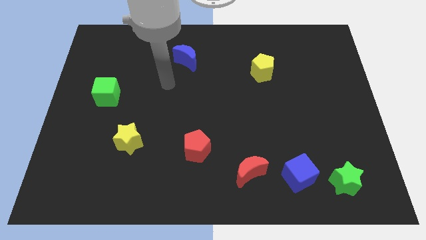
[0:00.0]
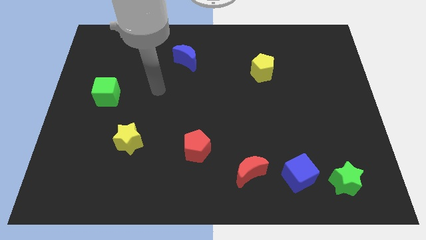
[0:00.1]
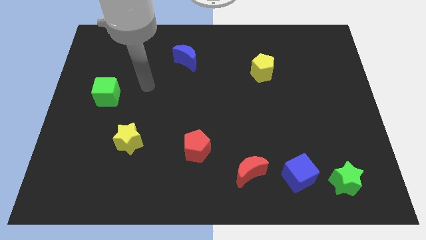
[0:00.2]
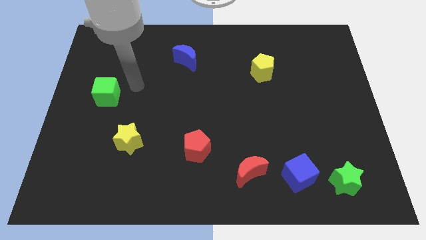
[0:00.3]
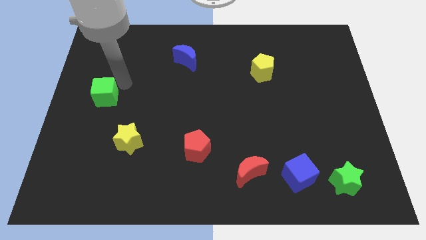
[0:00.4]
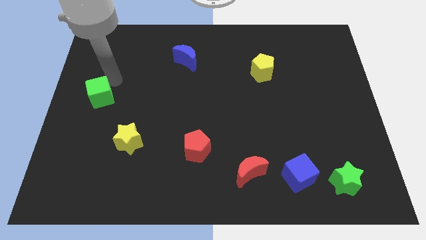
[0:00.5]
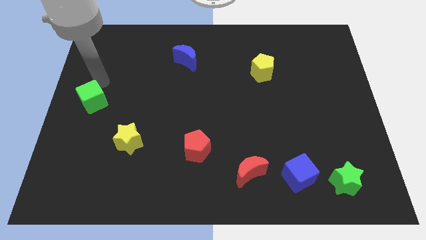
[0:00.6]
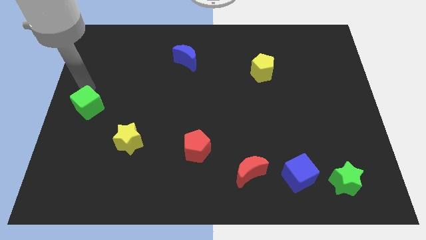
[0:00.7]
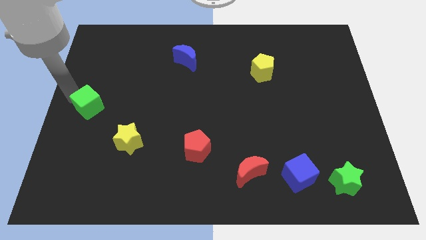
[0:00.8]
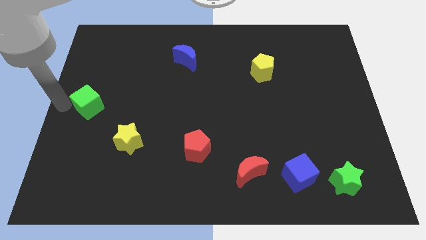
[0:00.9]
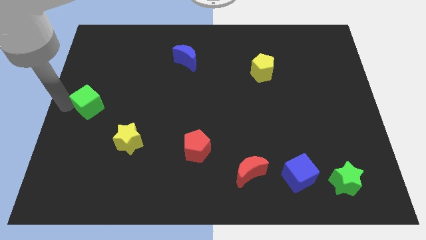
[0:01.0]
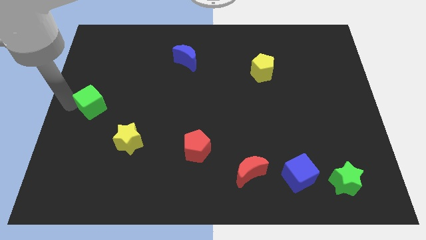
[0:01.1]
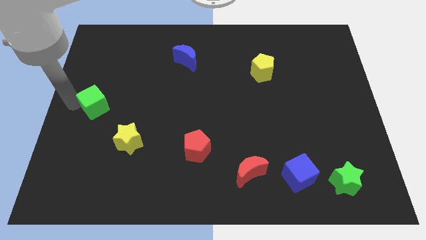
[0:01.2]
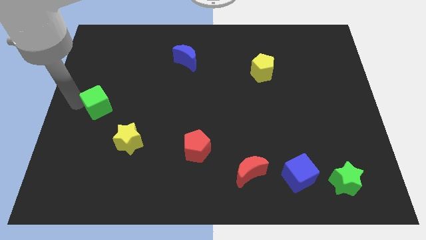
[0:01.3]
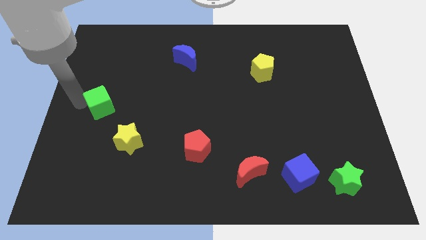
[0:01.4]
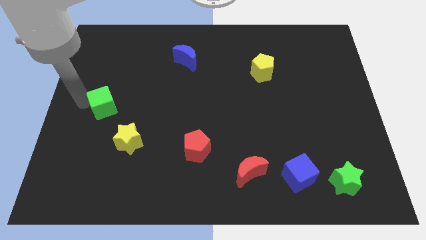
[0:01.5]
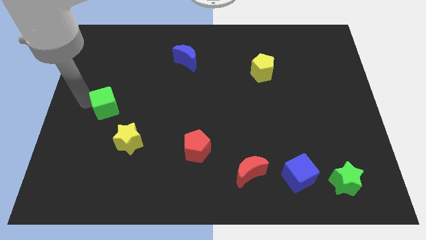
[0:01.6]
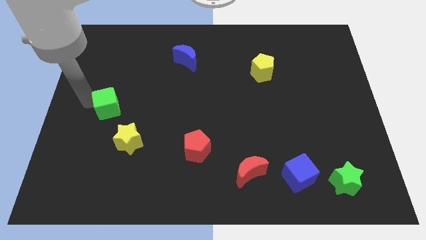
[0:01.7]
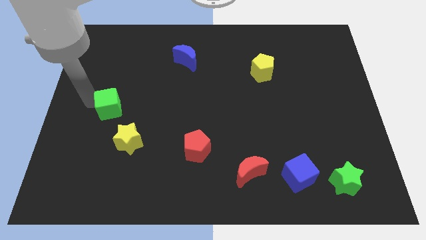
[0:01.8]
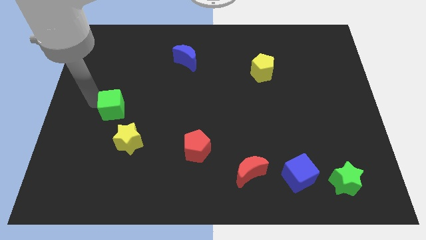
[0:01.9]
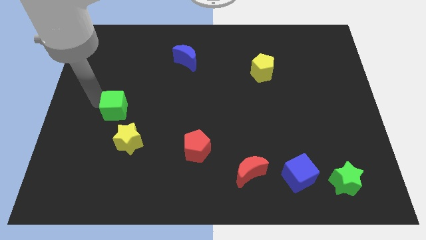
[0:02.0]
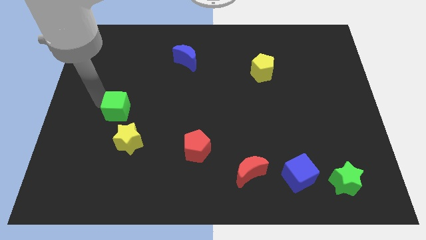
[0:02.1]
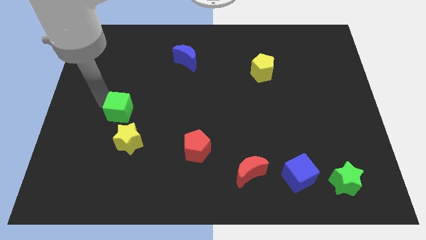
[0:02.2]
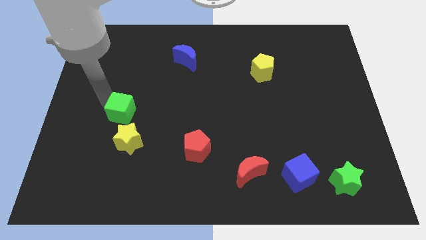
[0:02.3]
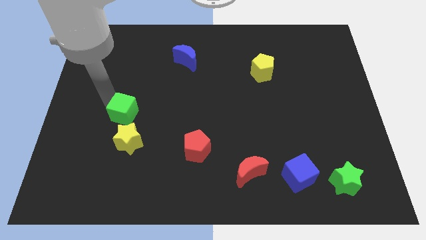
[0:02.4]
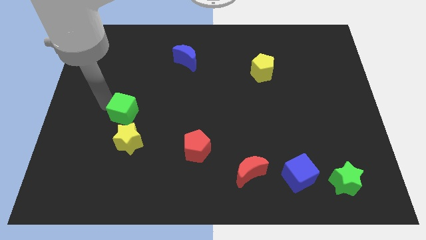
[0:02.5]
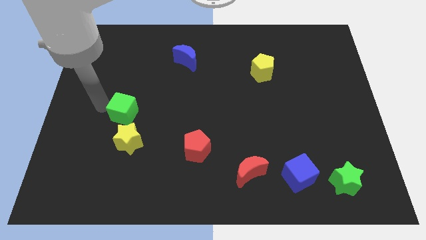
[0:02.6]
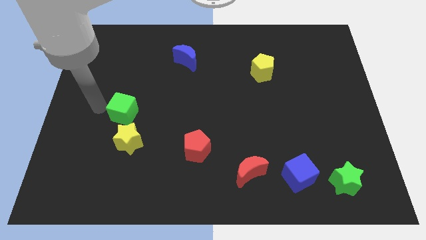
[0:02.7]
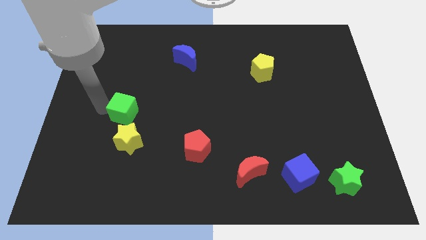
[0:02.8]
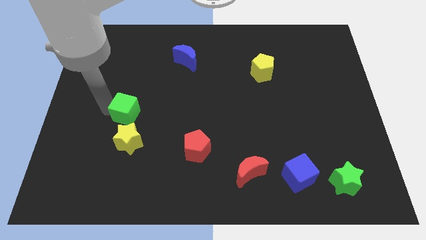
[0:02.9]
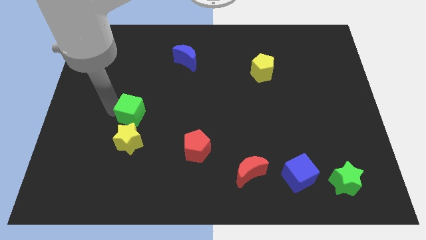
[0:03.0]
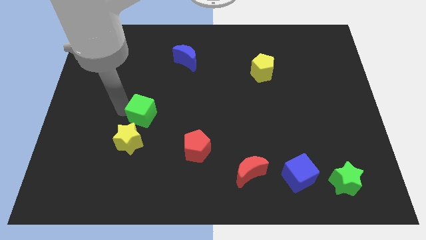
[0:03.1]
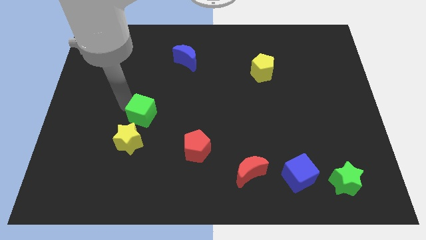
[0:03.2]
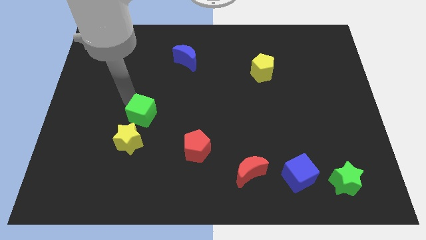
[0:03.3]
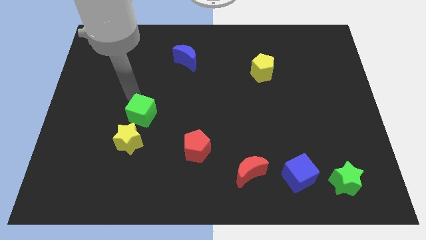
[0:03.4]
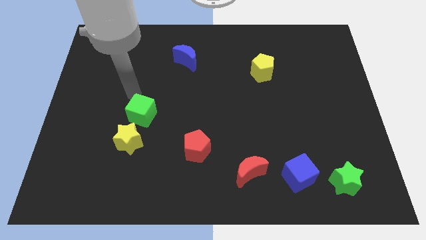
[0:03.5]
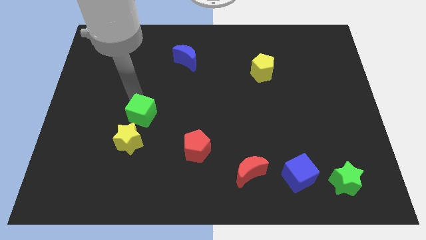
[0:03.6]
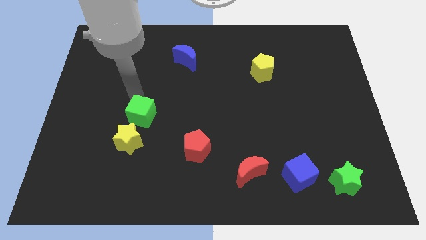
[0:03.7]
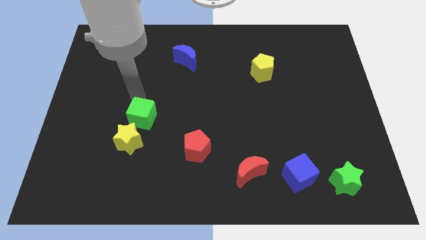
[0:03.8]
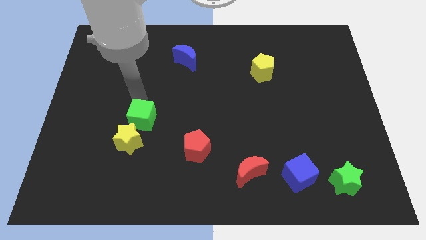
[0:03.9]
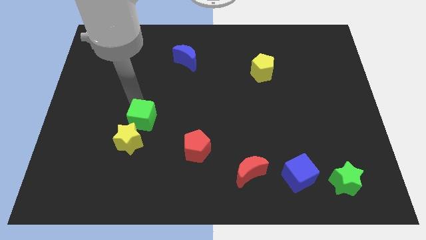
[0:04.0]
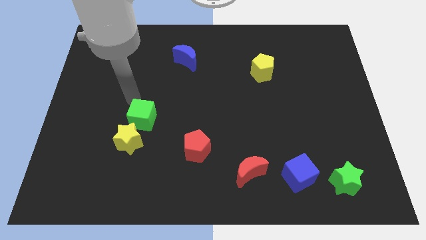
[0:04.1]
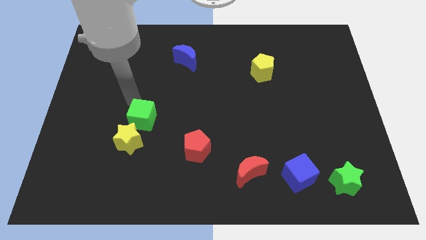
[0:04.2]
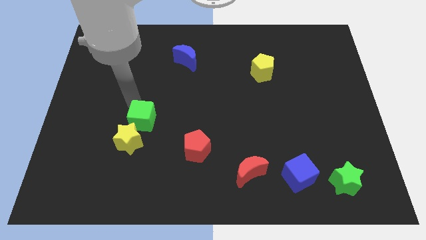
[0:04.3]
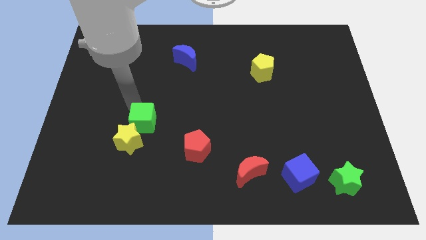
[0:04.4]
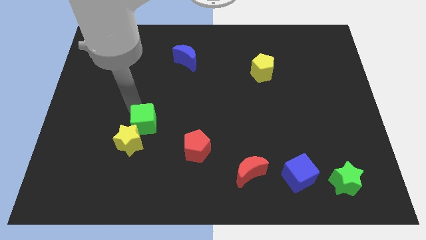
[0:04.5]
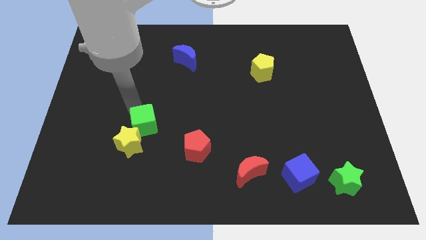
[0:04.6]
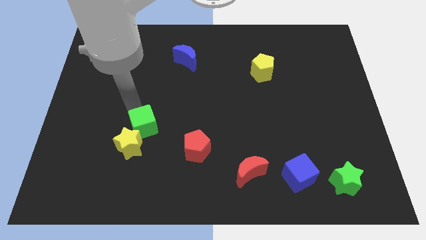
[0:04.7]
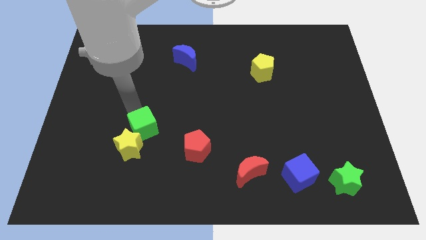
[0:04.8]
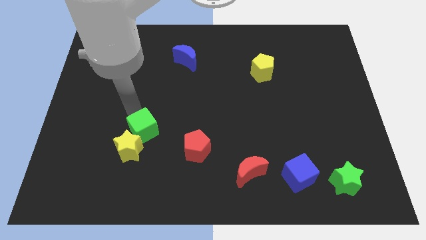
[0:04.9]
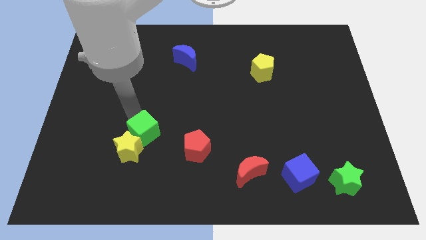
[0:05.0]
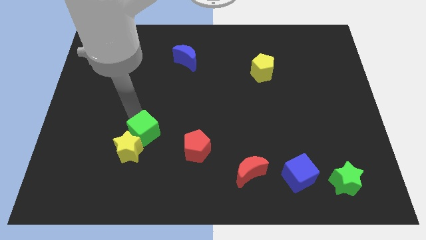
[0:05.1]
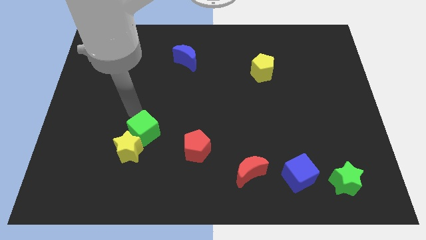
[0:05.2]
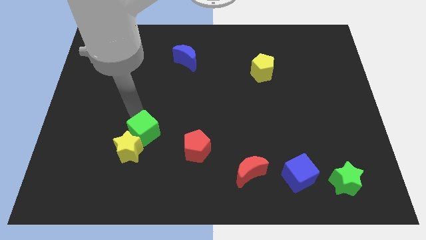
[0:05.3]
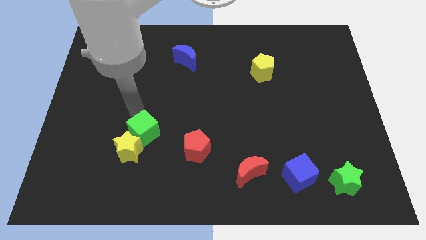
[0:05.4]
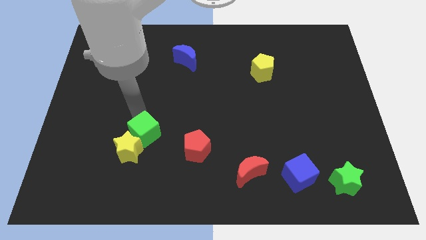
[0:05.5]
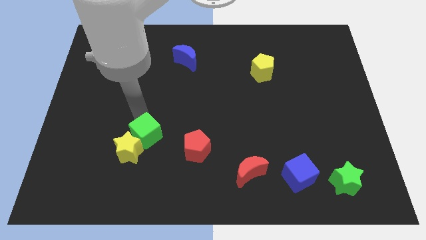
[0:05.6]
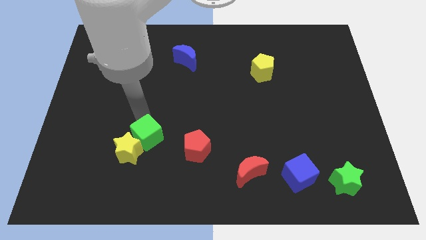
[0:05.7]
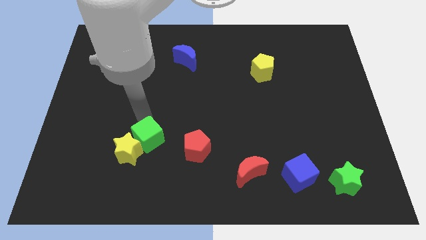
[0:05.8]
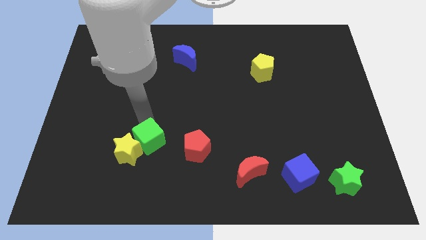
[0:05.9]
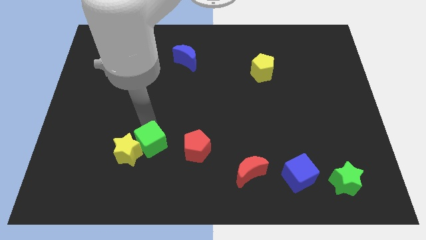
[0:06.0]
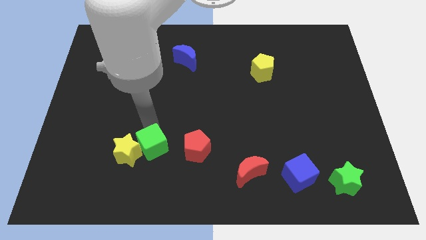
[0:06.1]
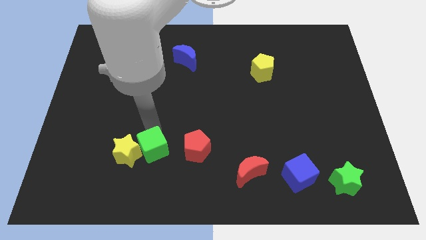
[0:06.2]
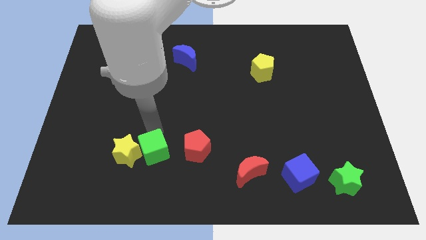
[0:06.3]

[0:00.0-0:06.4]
slide the green cube diagonally down and to the right of the yellow star

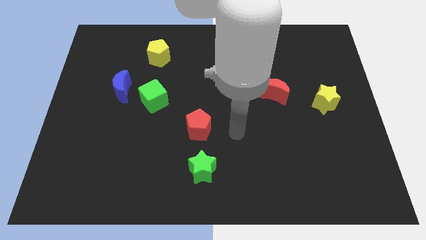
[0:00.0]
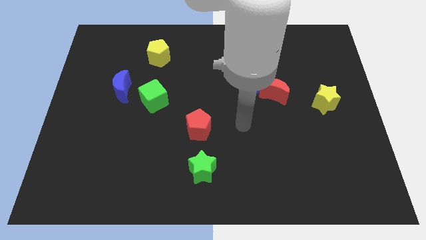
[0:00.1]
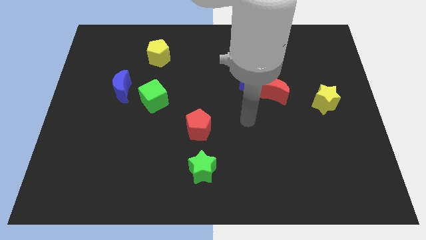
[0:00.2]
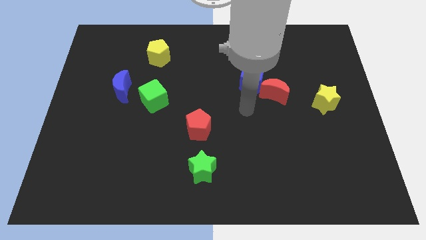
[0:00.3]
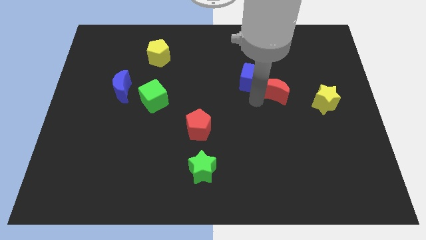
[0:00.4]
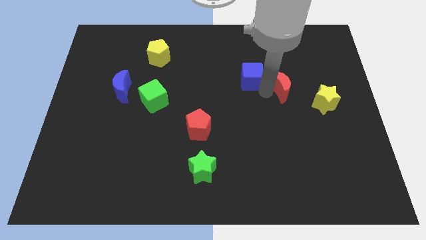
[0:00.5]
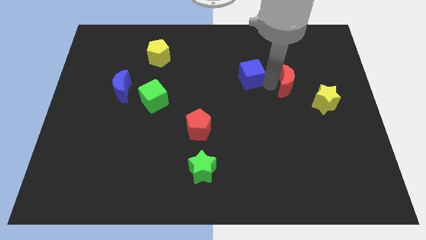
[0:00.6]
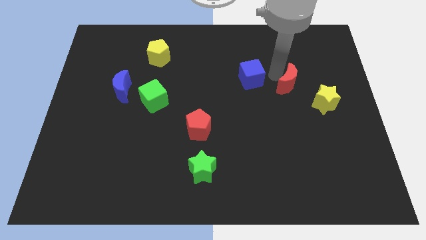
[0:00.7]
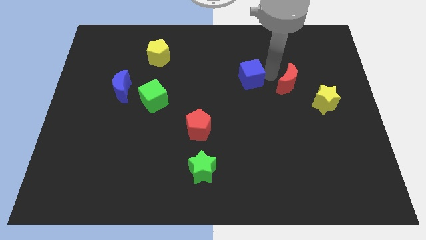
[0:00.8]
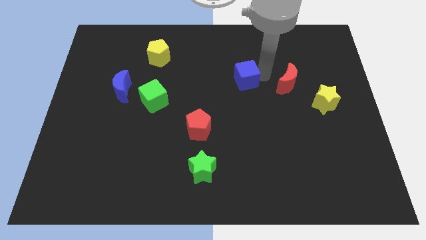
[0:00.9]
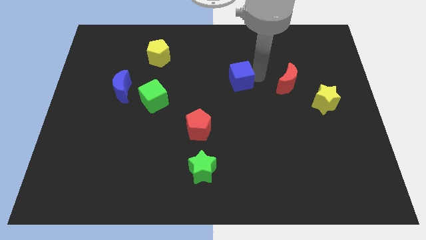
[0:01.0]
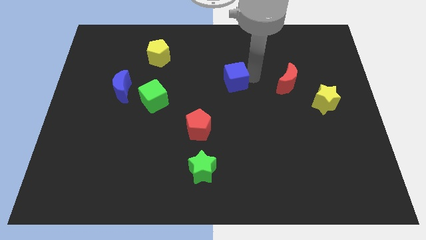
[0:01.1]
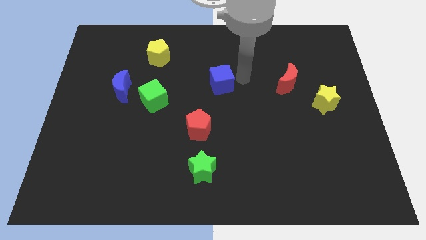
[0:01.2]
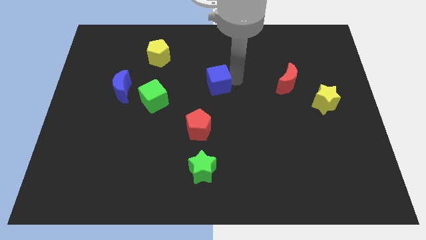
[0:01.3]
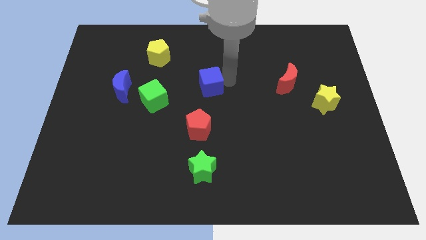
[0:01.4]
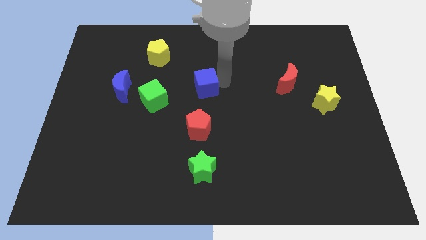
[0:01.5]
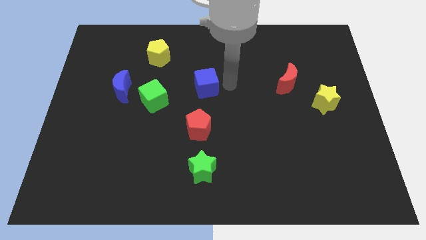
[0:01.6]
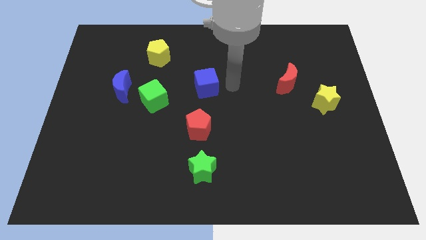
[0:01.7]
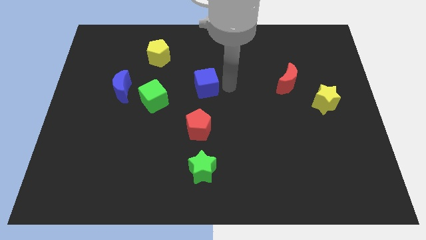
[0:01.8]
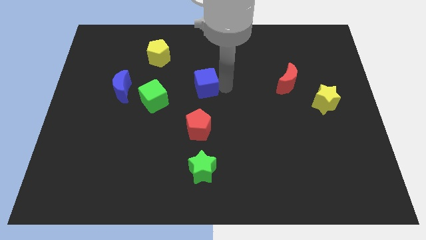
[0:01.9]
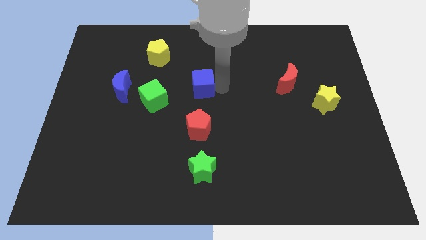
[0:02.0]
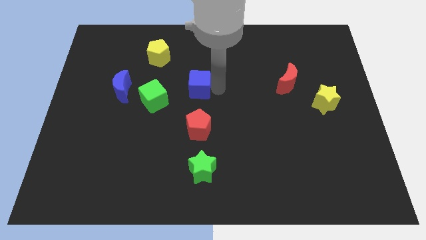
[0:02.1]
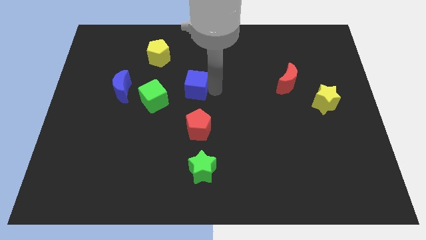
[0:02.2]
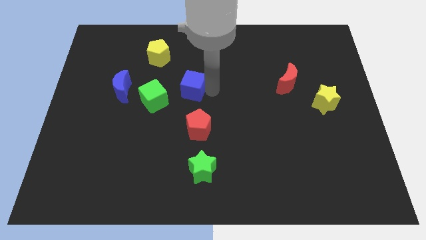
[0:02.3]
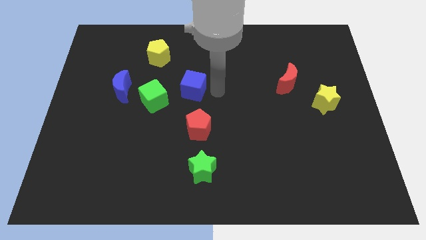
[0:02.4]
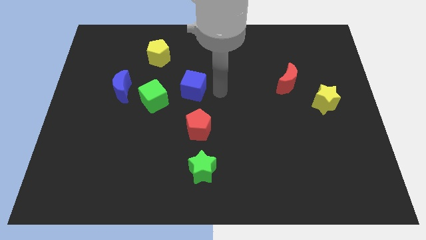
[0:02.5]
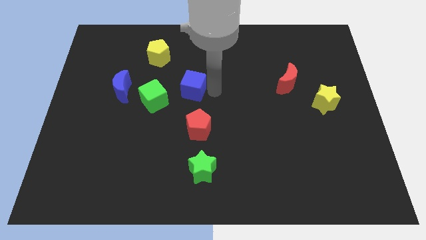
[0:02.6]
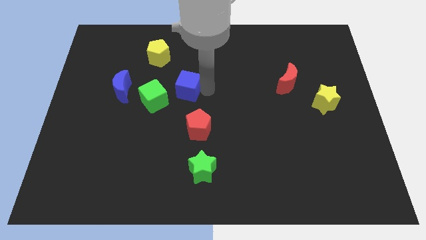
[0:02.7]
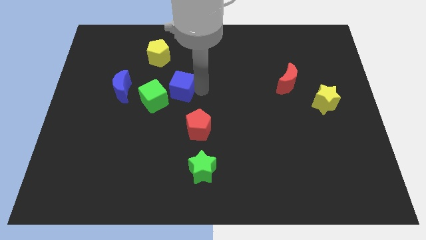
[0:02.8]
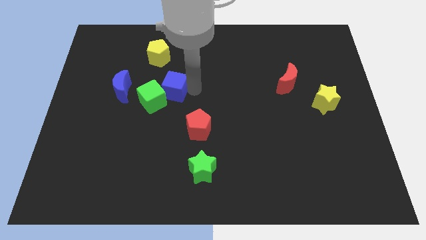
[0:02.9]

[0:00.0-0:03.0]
put the blue cube below the yellow pentagon
